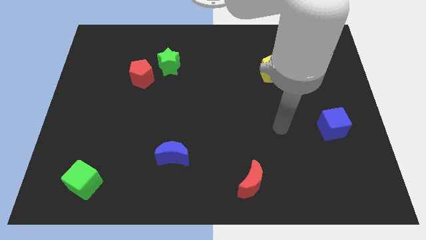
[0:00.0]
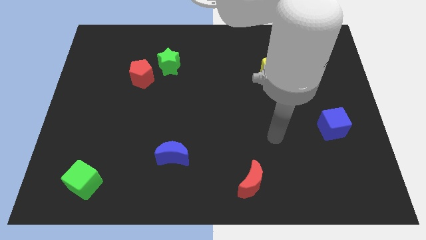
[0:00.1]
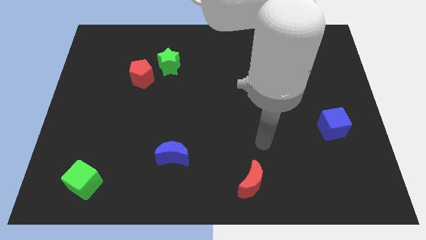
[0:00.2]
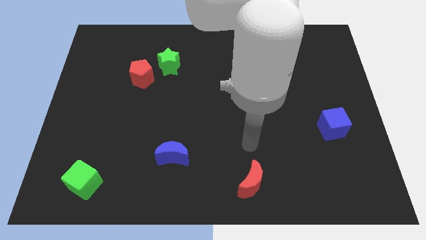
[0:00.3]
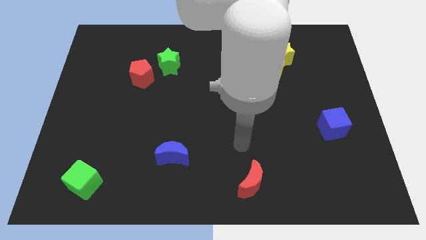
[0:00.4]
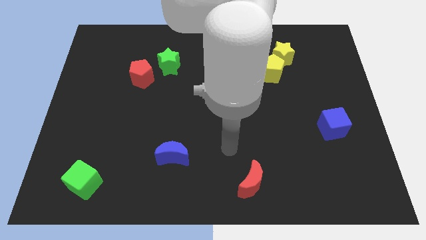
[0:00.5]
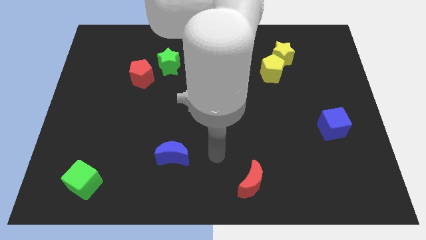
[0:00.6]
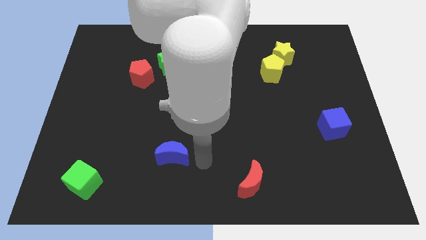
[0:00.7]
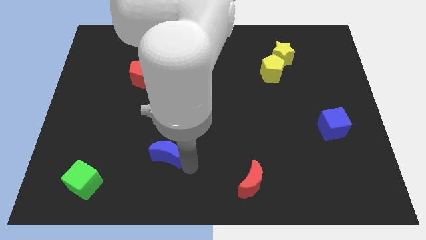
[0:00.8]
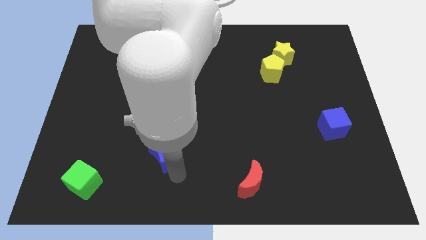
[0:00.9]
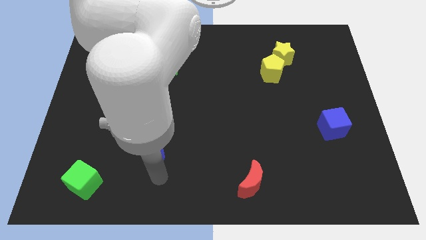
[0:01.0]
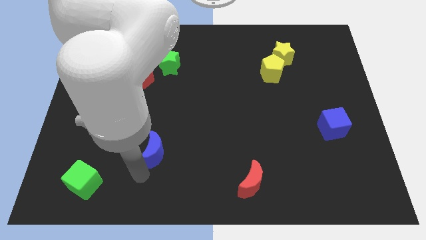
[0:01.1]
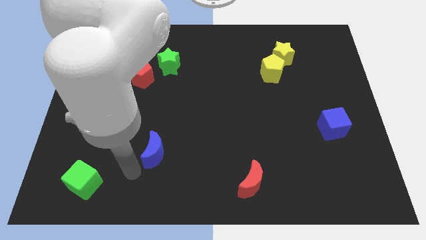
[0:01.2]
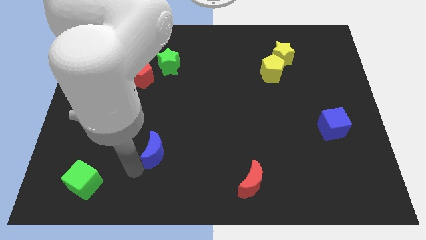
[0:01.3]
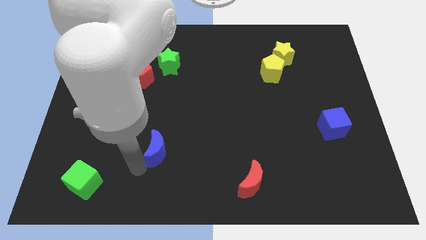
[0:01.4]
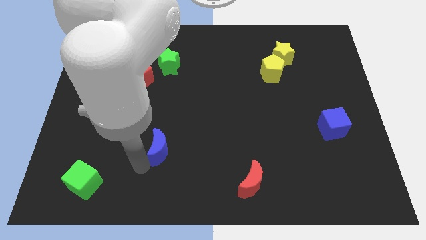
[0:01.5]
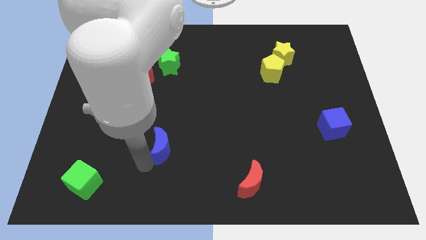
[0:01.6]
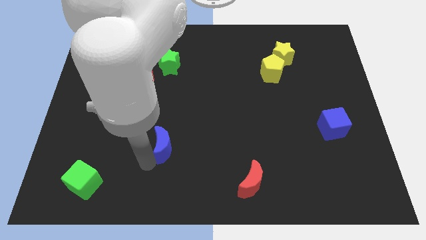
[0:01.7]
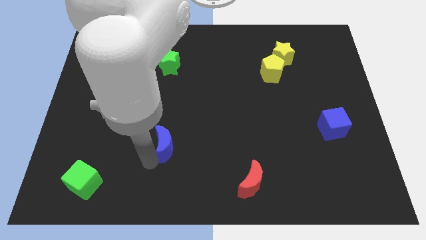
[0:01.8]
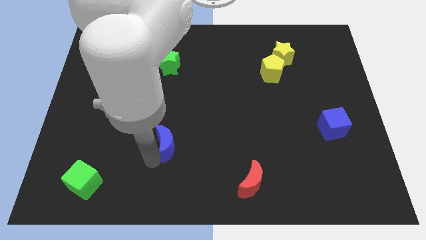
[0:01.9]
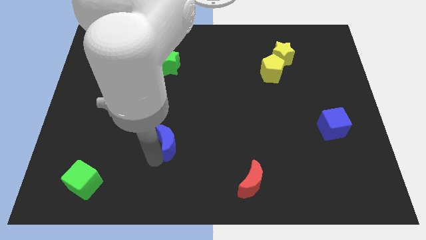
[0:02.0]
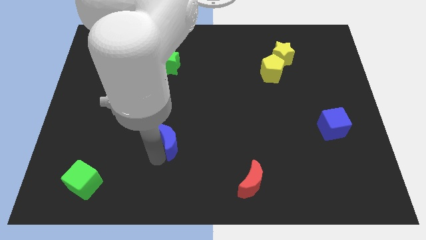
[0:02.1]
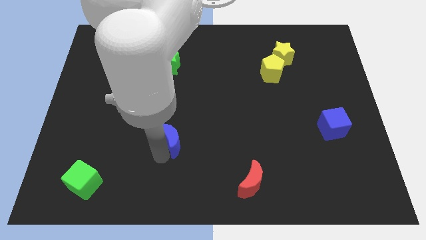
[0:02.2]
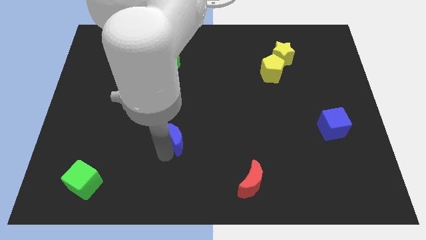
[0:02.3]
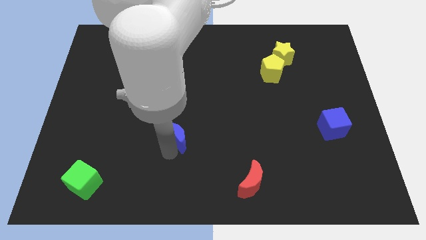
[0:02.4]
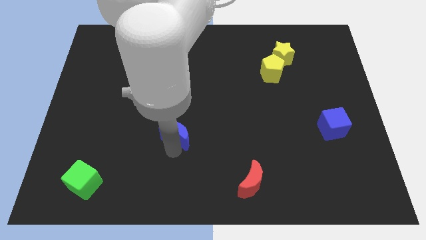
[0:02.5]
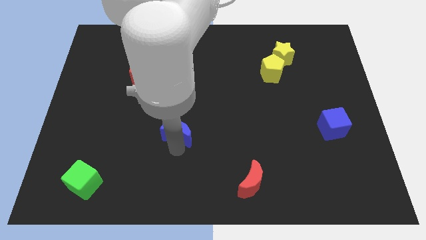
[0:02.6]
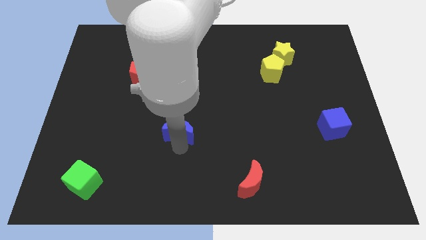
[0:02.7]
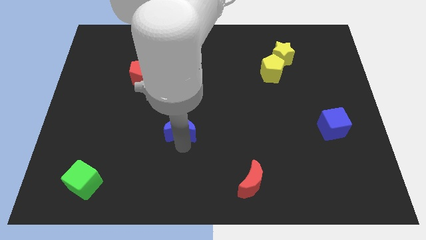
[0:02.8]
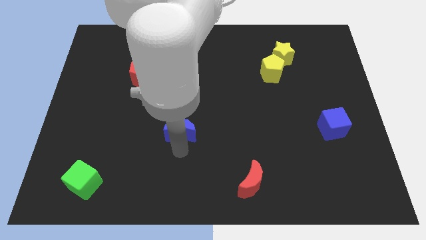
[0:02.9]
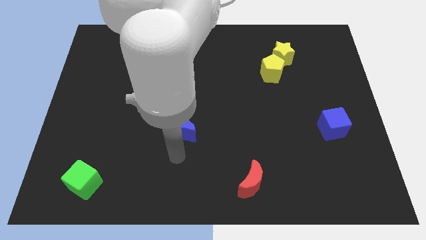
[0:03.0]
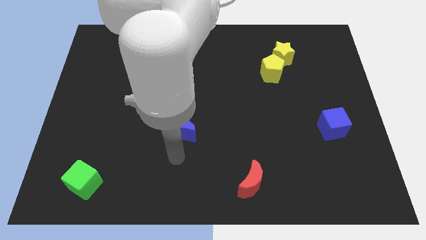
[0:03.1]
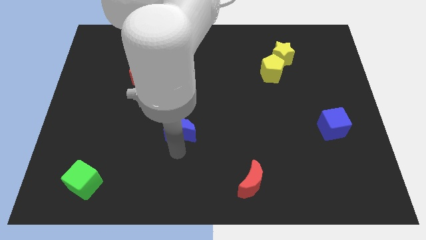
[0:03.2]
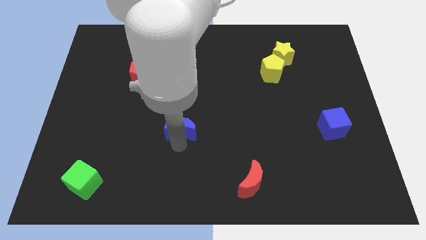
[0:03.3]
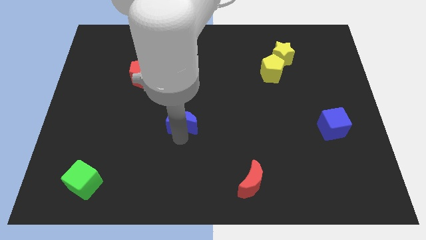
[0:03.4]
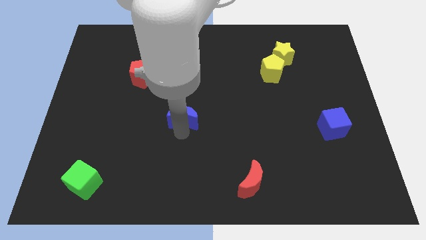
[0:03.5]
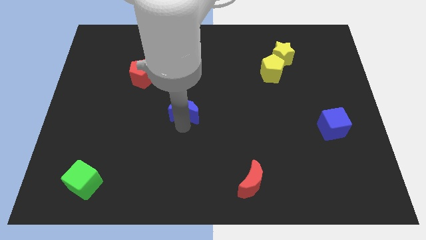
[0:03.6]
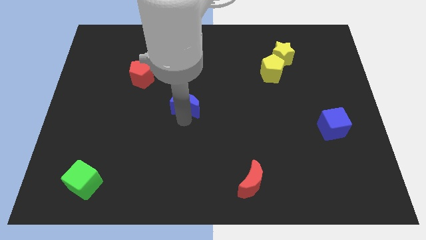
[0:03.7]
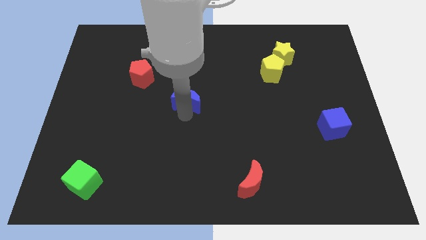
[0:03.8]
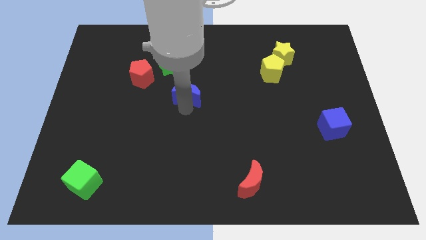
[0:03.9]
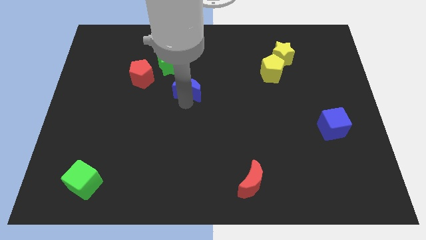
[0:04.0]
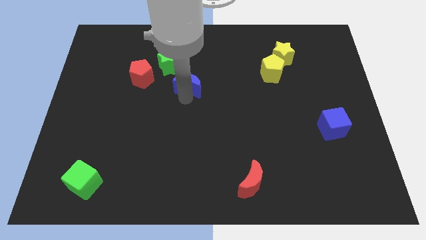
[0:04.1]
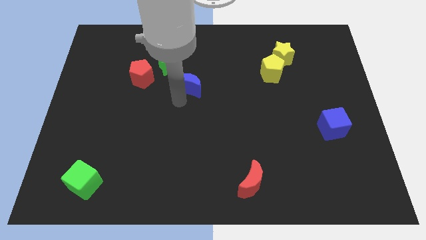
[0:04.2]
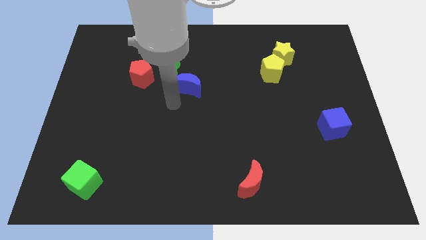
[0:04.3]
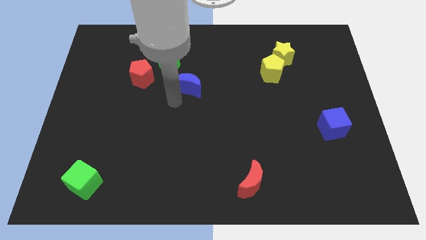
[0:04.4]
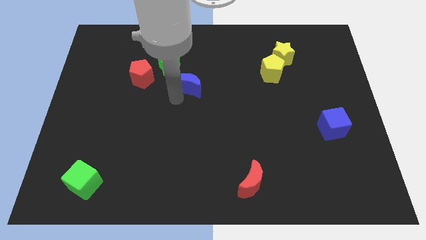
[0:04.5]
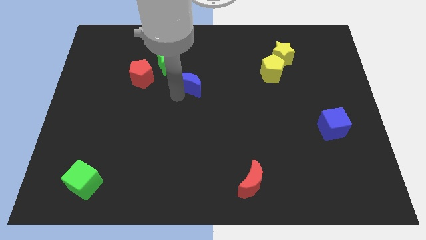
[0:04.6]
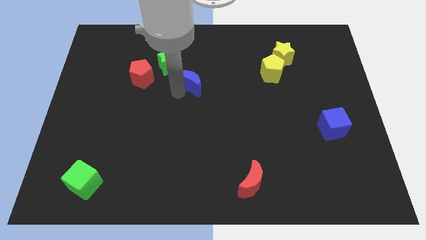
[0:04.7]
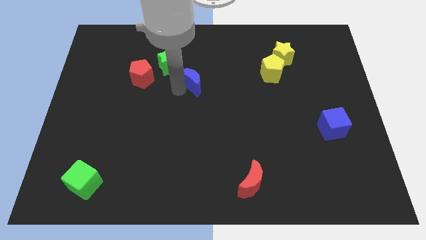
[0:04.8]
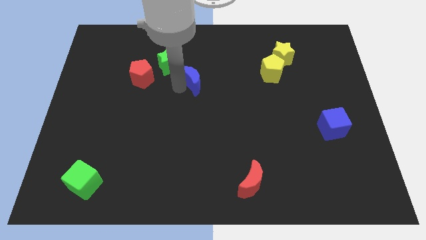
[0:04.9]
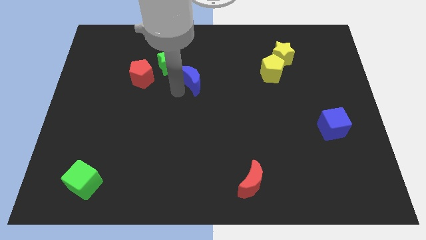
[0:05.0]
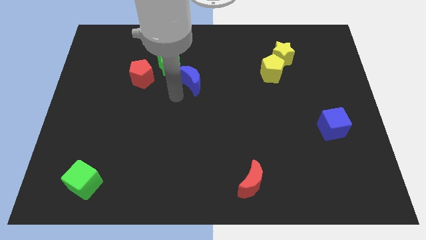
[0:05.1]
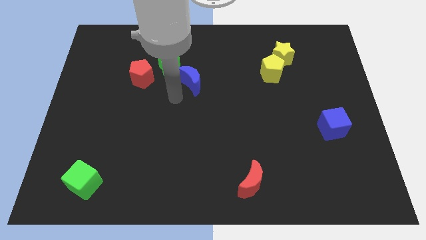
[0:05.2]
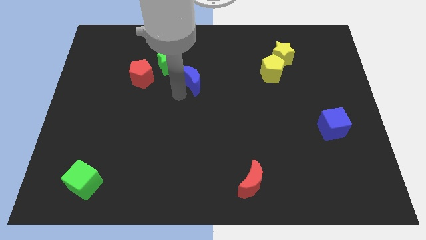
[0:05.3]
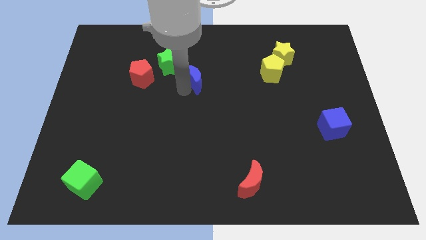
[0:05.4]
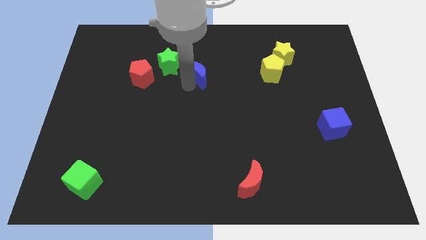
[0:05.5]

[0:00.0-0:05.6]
slide the blue moon to the right of the green star

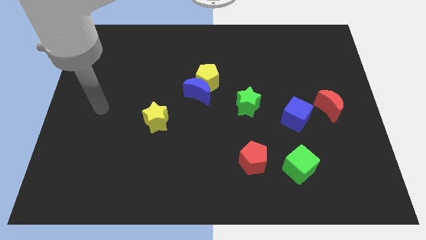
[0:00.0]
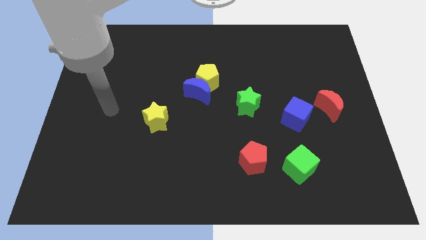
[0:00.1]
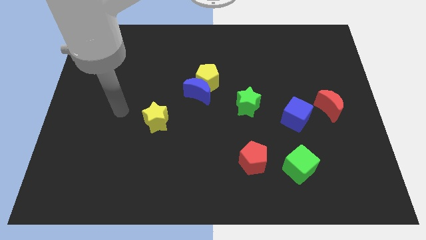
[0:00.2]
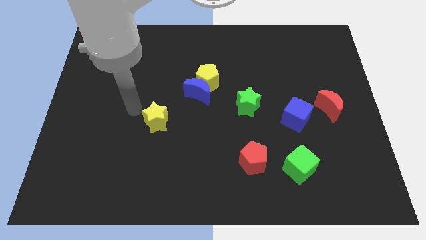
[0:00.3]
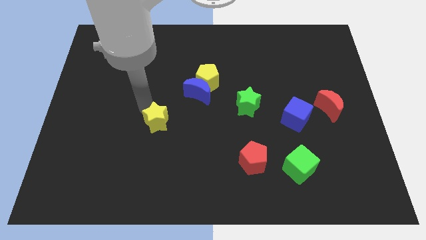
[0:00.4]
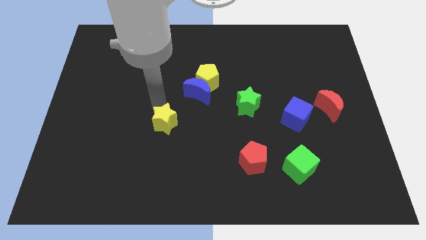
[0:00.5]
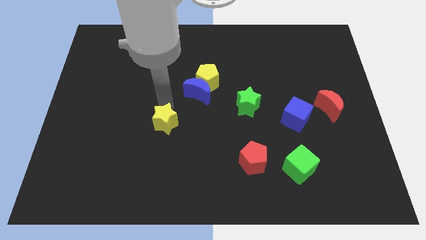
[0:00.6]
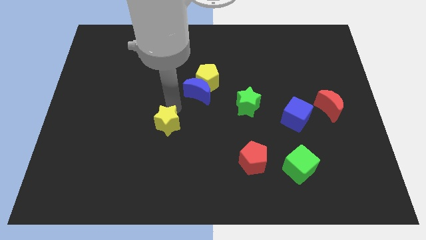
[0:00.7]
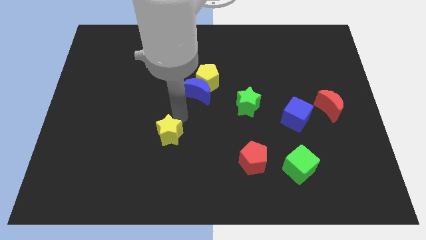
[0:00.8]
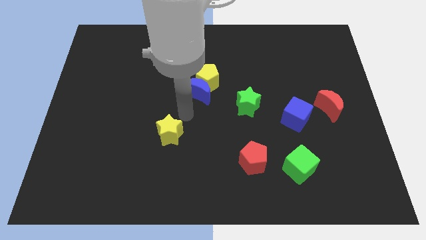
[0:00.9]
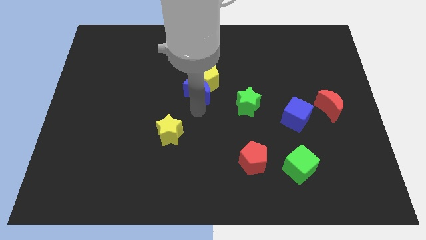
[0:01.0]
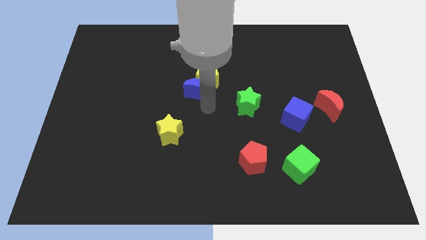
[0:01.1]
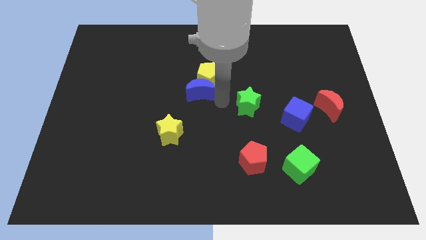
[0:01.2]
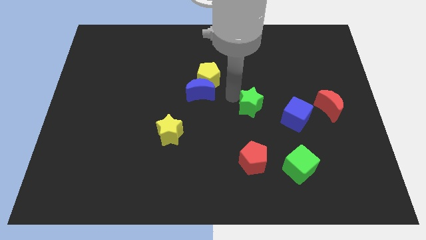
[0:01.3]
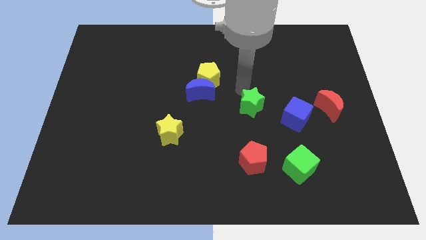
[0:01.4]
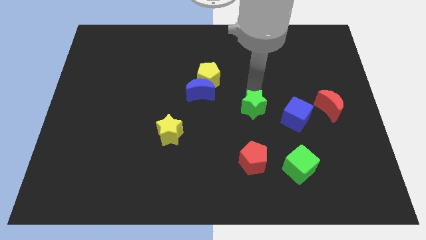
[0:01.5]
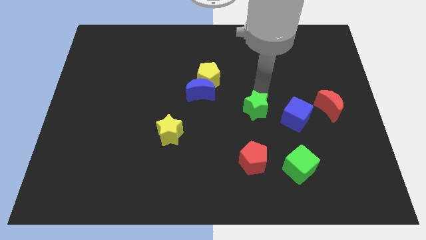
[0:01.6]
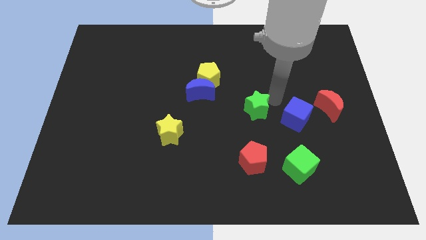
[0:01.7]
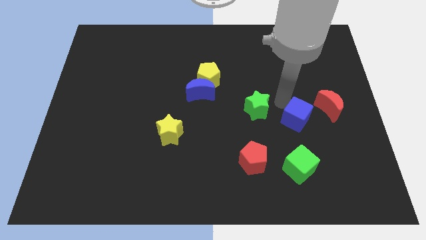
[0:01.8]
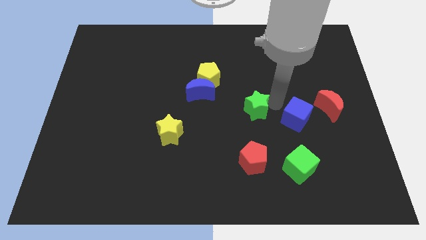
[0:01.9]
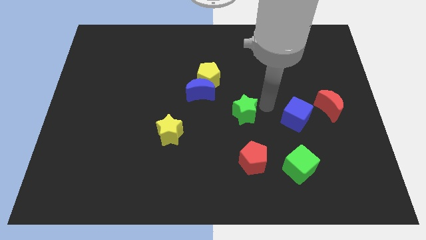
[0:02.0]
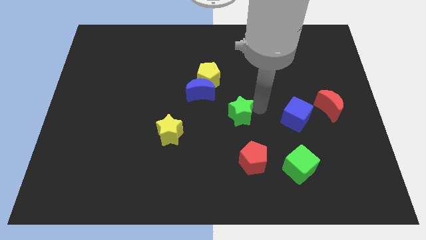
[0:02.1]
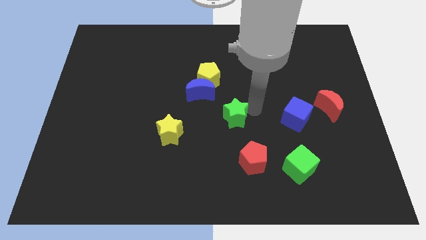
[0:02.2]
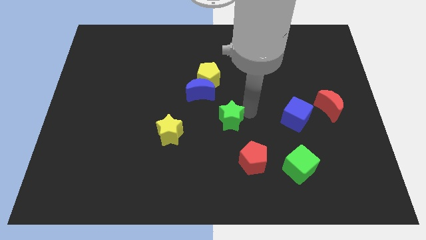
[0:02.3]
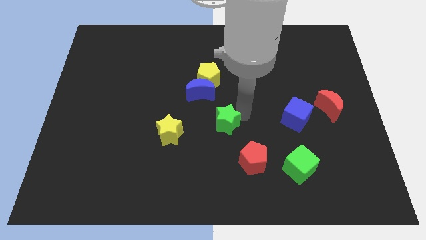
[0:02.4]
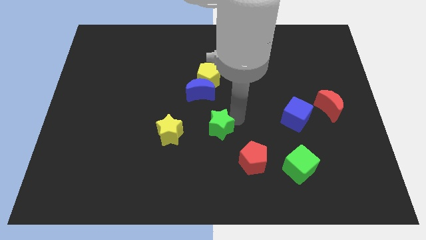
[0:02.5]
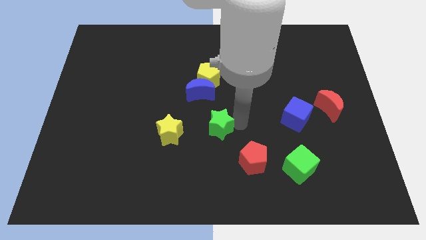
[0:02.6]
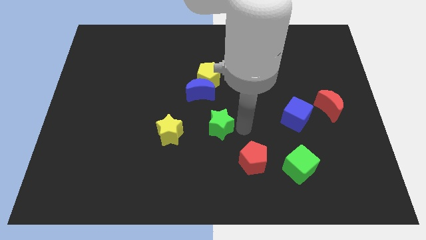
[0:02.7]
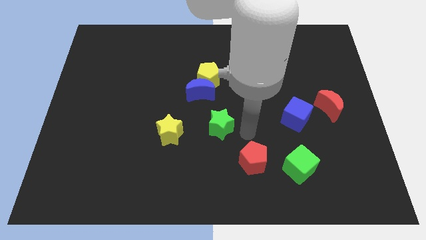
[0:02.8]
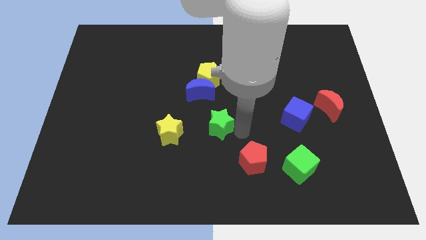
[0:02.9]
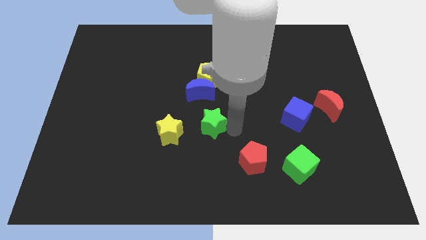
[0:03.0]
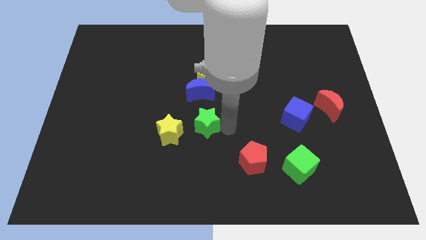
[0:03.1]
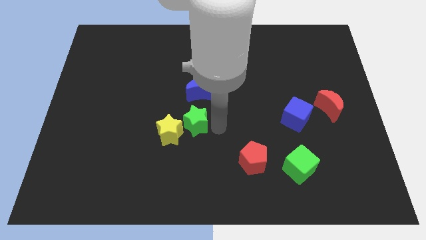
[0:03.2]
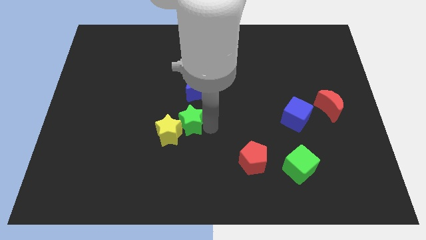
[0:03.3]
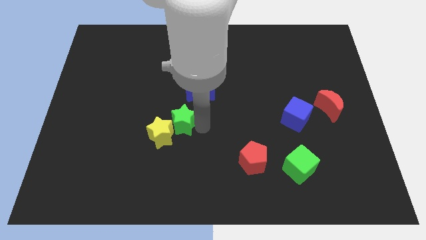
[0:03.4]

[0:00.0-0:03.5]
move the green star to the top side of the yellow star
